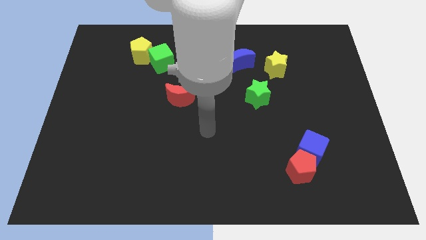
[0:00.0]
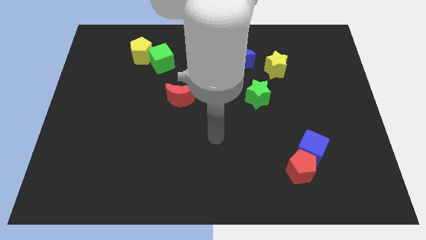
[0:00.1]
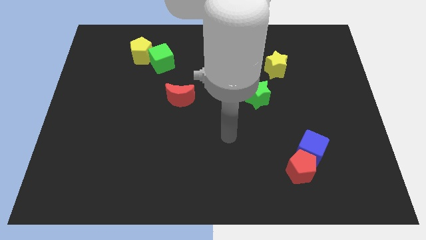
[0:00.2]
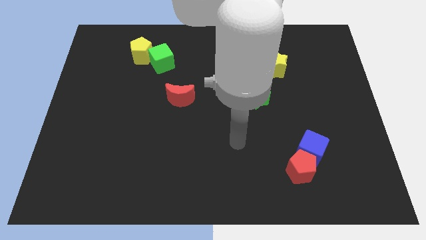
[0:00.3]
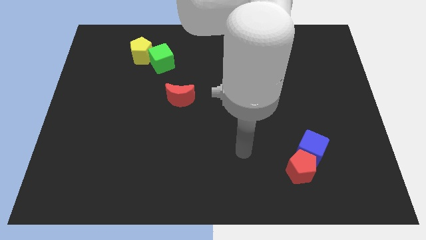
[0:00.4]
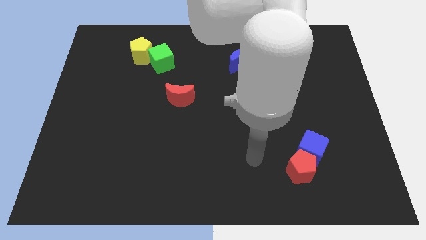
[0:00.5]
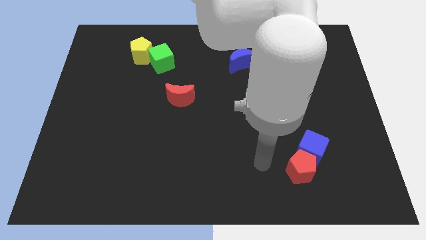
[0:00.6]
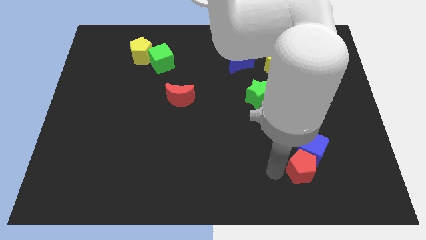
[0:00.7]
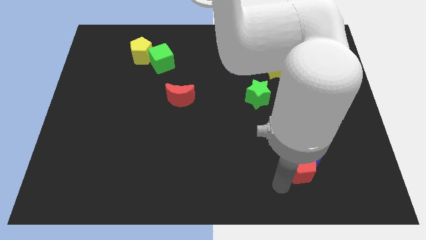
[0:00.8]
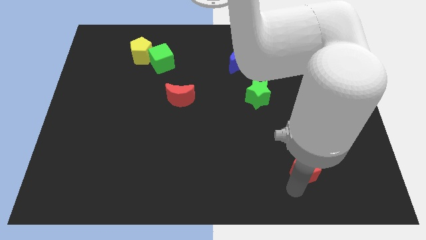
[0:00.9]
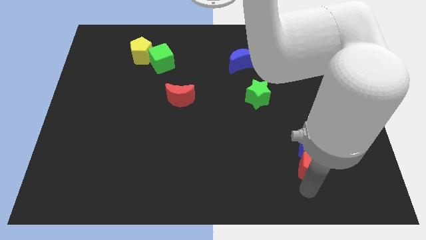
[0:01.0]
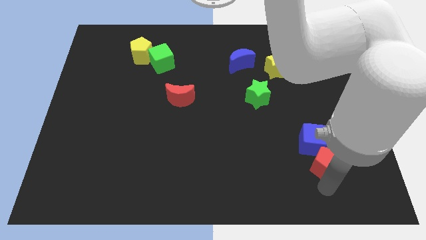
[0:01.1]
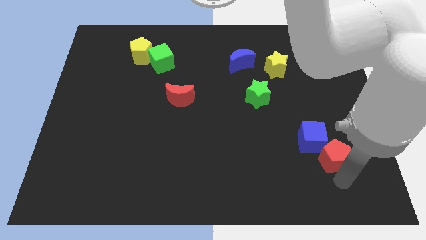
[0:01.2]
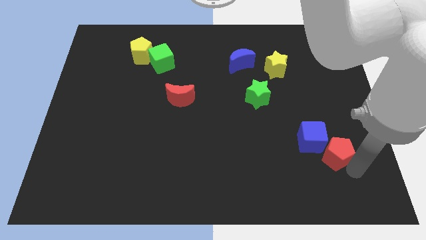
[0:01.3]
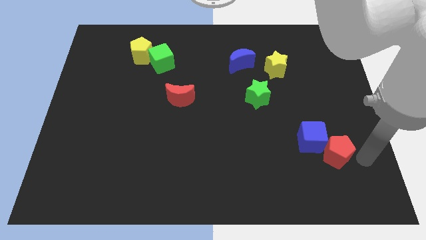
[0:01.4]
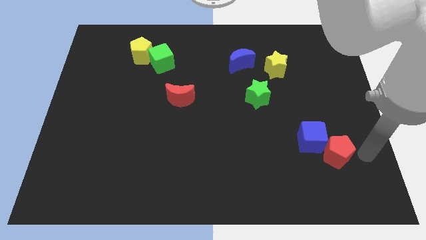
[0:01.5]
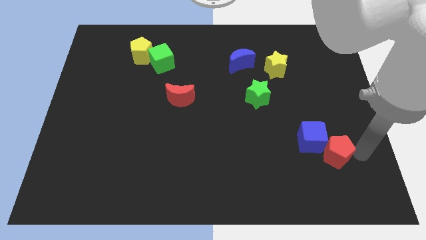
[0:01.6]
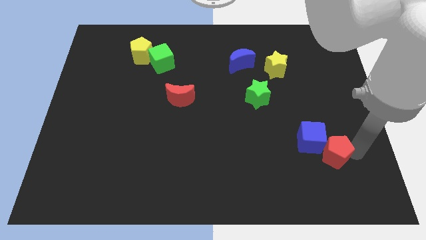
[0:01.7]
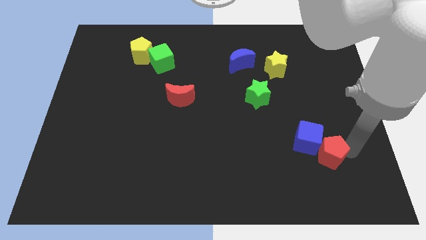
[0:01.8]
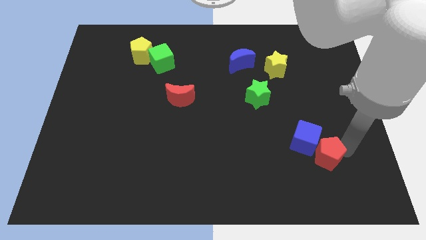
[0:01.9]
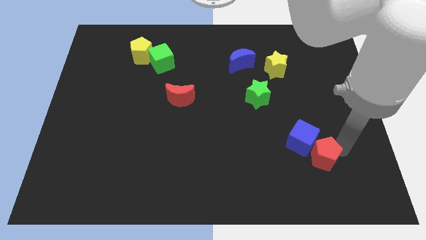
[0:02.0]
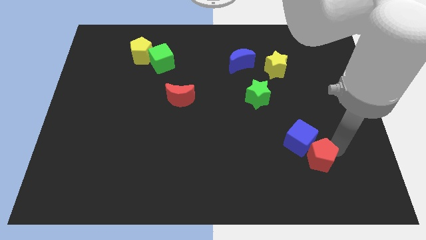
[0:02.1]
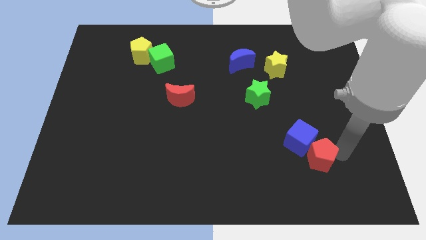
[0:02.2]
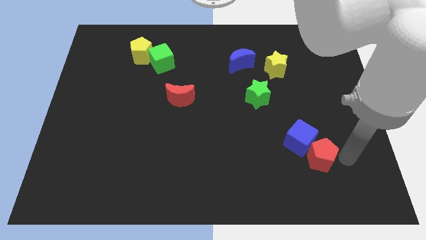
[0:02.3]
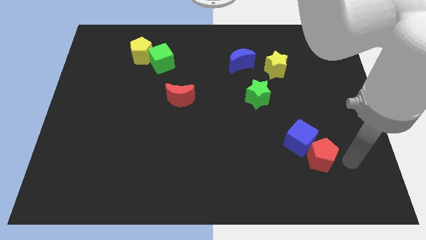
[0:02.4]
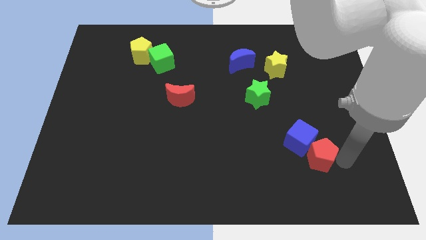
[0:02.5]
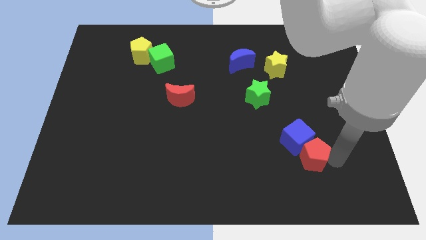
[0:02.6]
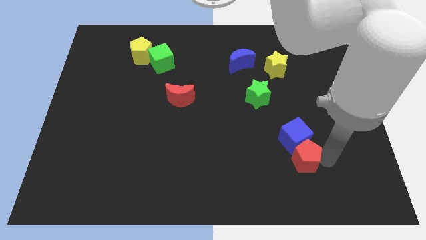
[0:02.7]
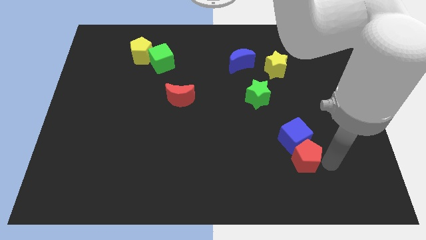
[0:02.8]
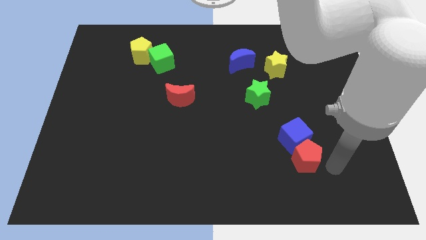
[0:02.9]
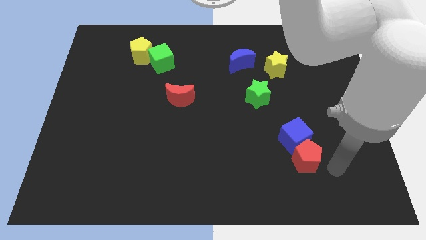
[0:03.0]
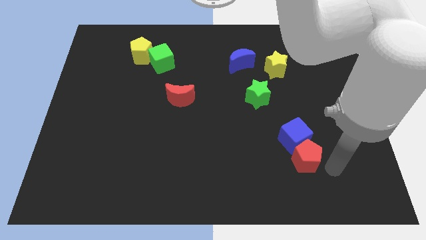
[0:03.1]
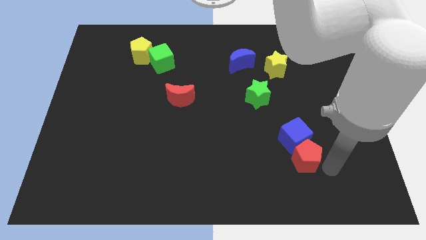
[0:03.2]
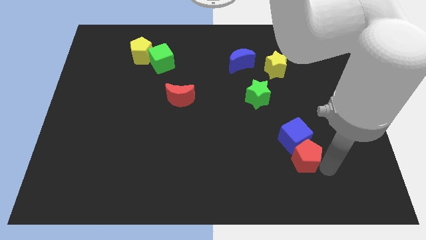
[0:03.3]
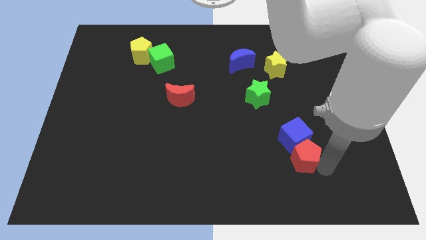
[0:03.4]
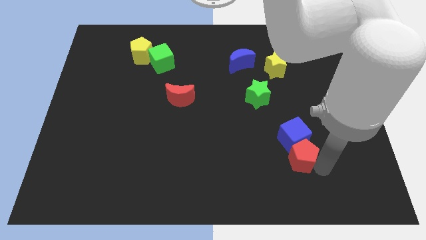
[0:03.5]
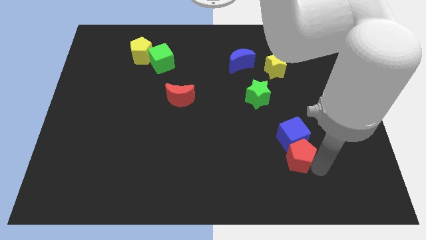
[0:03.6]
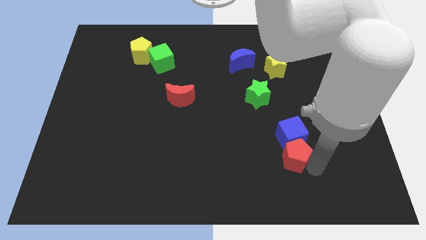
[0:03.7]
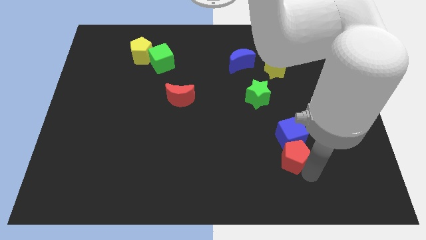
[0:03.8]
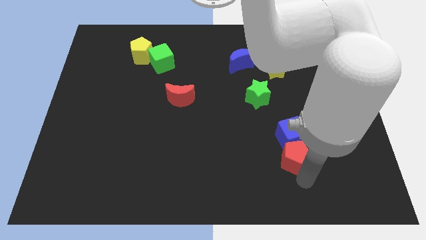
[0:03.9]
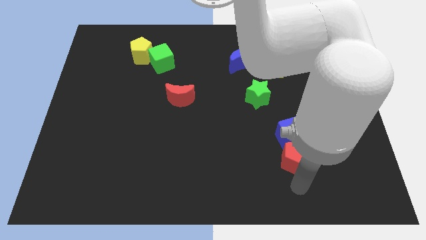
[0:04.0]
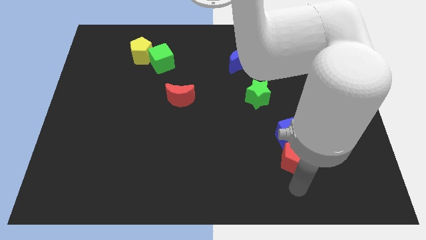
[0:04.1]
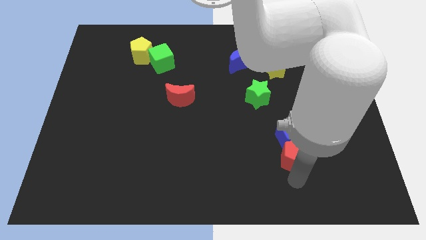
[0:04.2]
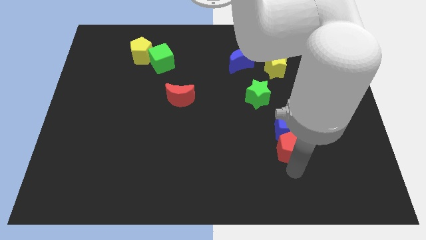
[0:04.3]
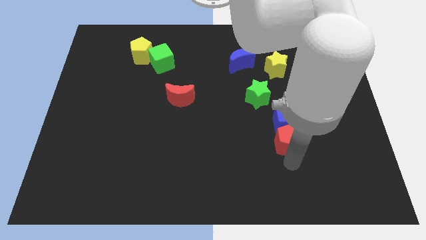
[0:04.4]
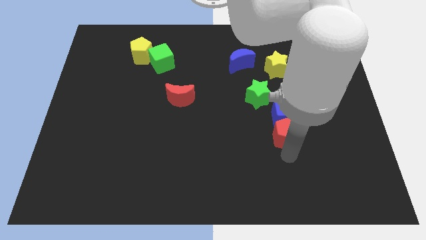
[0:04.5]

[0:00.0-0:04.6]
move the red pentagon upwards a little bit

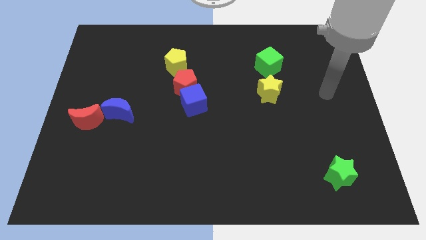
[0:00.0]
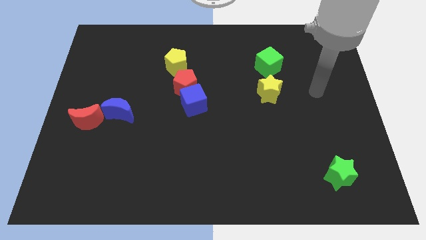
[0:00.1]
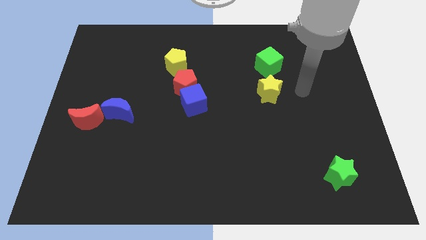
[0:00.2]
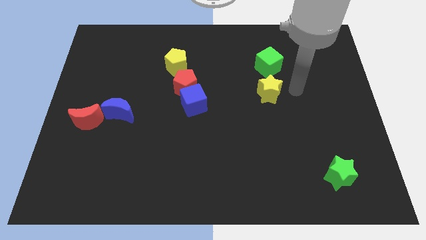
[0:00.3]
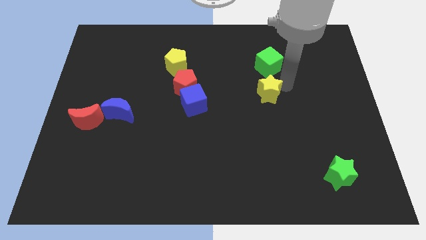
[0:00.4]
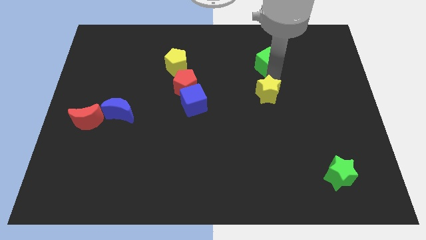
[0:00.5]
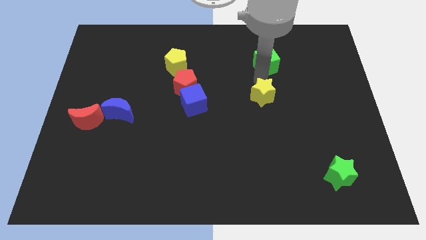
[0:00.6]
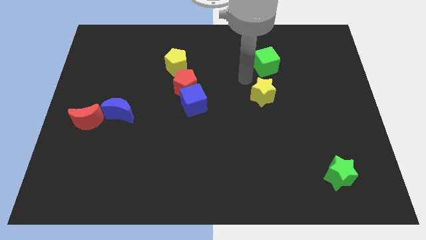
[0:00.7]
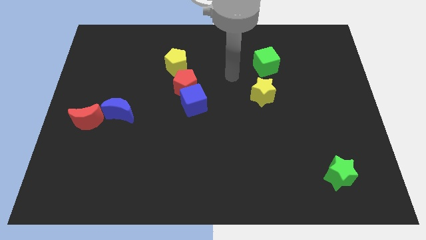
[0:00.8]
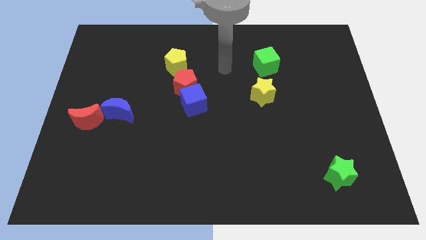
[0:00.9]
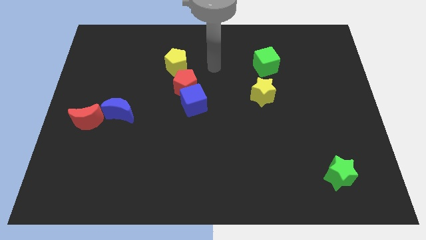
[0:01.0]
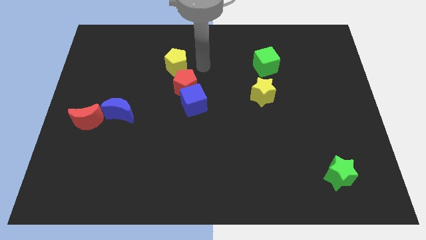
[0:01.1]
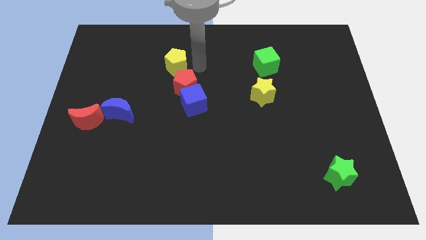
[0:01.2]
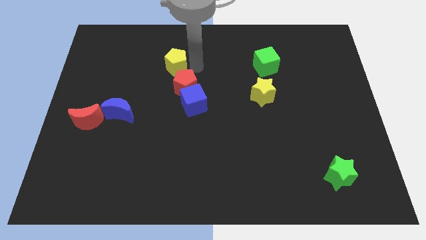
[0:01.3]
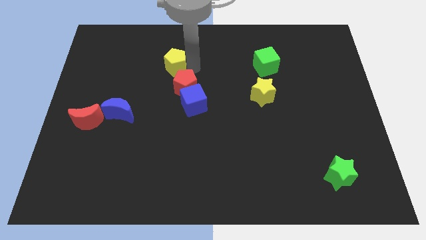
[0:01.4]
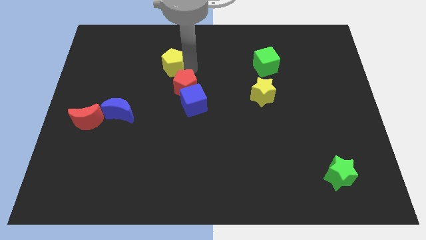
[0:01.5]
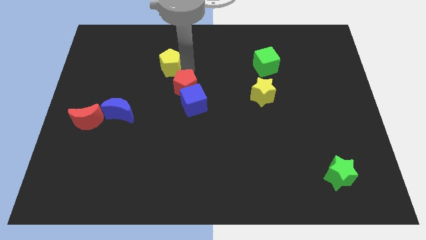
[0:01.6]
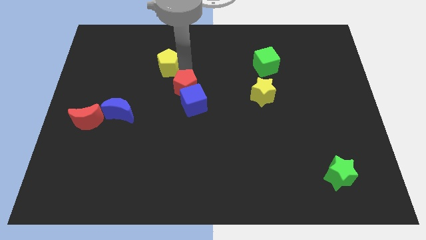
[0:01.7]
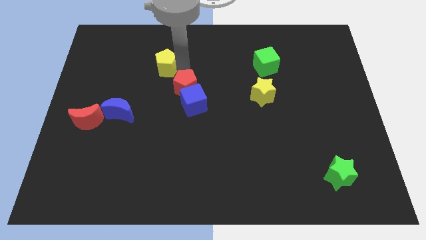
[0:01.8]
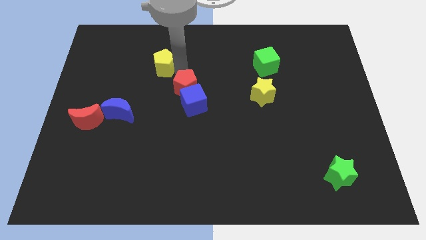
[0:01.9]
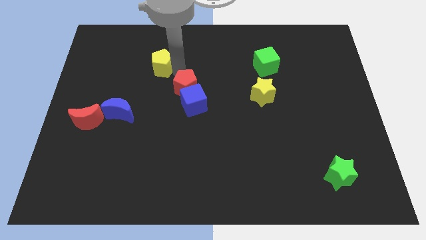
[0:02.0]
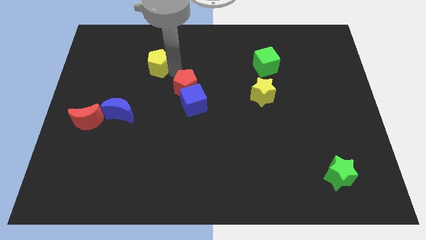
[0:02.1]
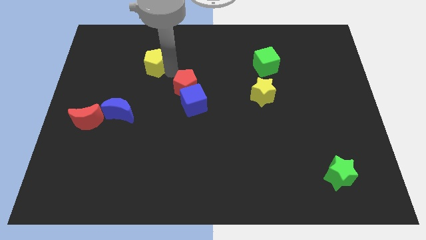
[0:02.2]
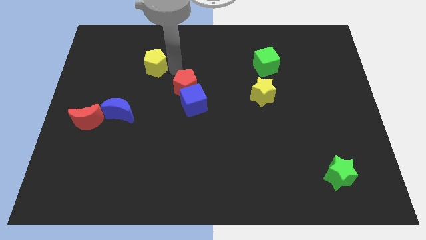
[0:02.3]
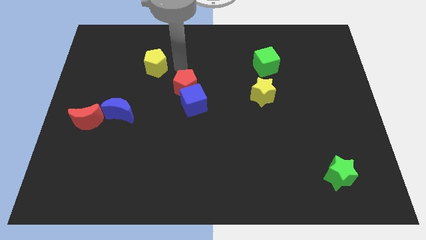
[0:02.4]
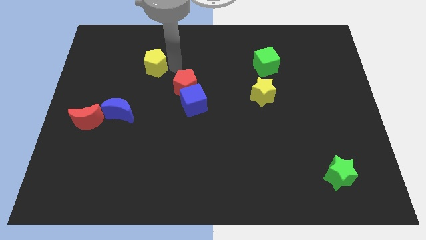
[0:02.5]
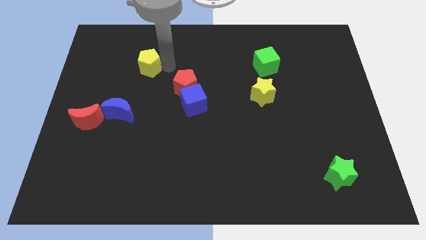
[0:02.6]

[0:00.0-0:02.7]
slightly move the yellow pentagon to the left

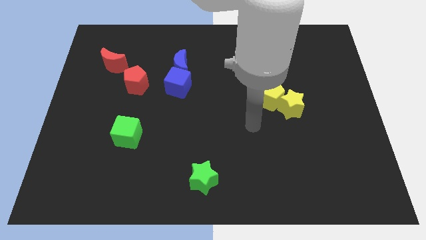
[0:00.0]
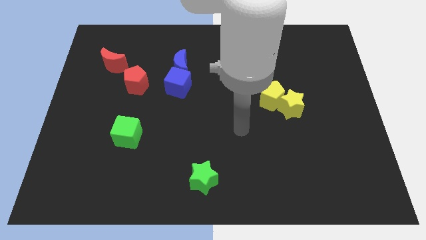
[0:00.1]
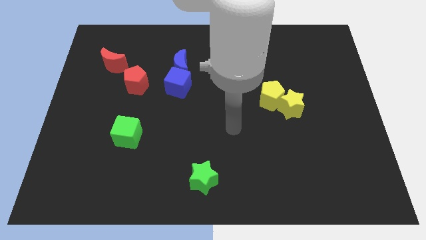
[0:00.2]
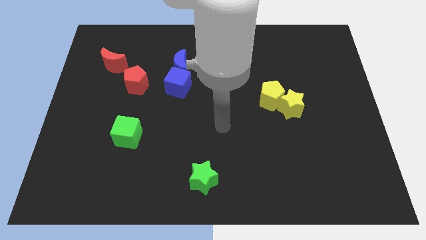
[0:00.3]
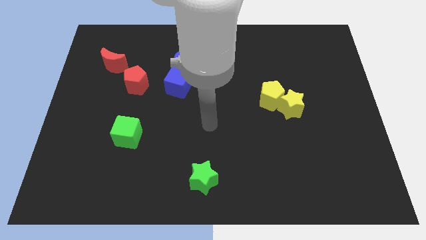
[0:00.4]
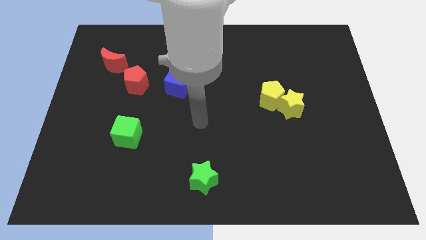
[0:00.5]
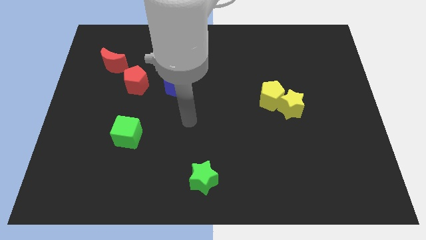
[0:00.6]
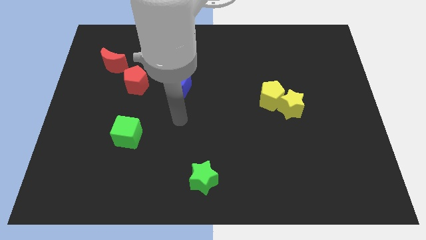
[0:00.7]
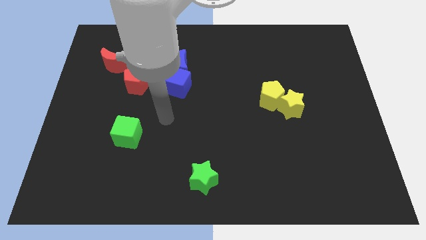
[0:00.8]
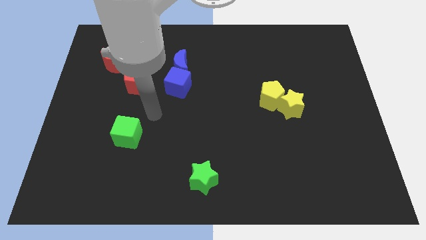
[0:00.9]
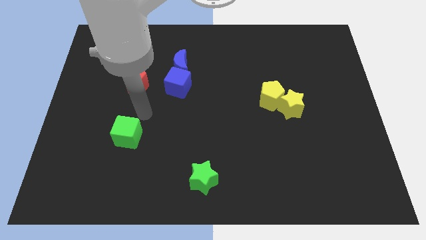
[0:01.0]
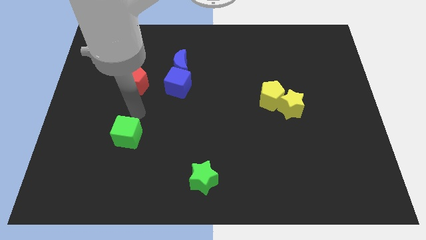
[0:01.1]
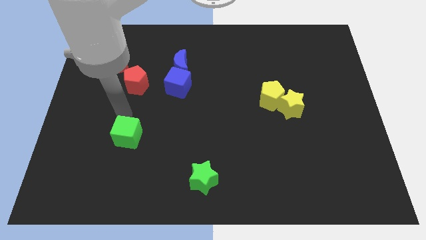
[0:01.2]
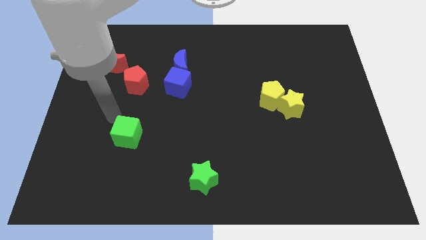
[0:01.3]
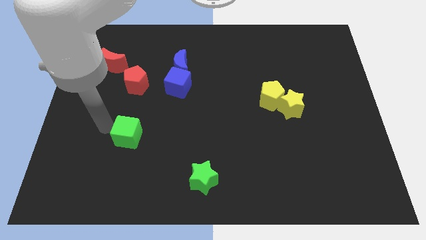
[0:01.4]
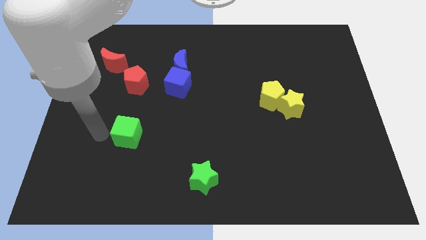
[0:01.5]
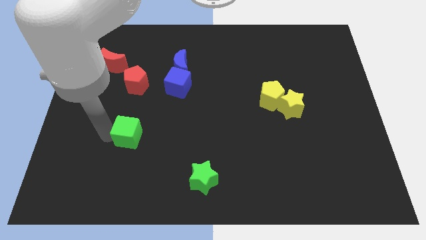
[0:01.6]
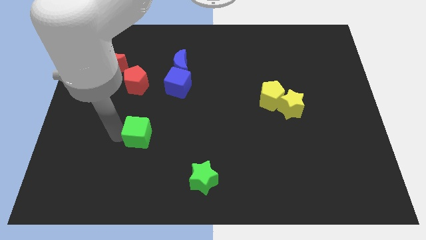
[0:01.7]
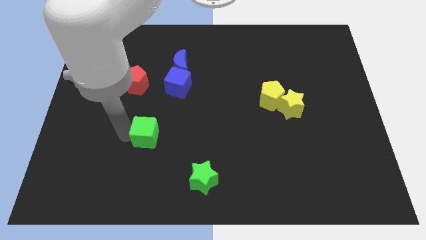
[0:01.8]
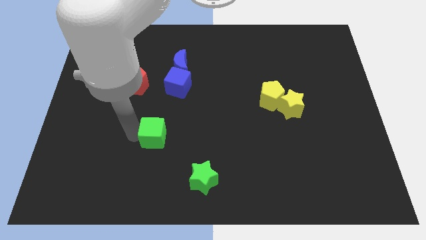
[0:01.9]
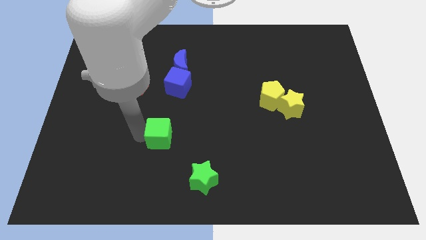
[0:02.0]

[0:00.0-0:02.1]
push the green cube to the right a little bit
